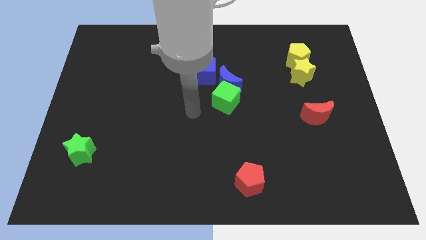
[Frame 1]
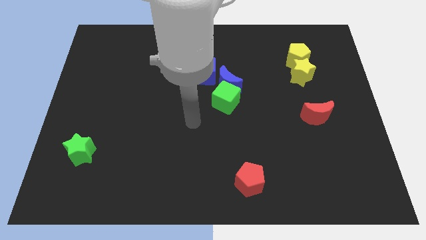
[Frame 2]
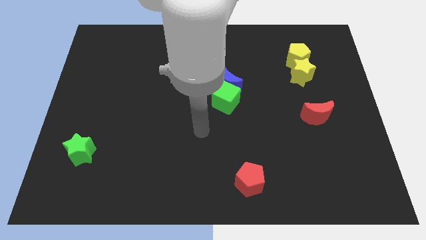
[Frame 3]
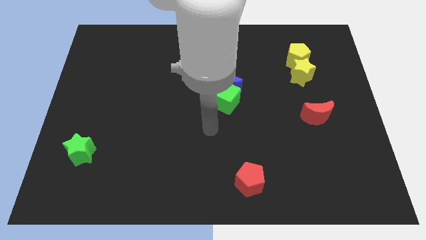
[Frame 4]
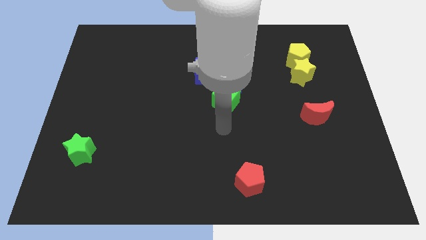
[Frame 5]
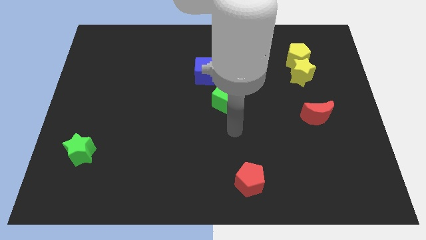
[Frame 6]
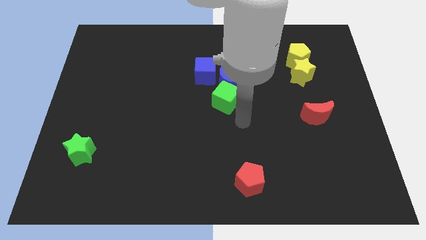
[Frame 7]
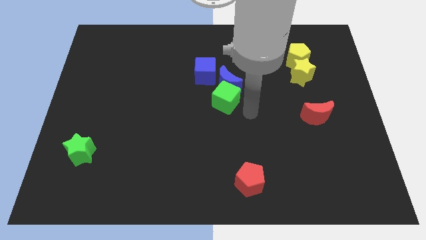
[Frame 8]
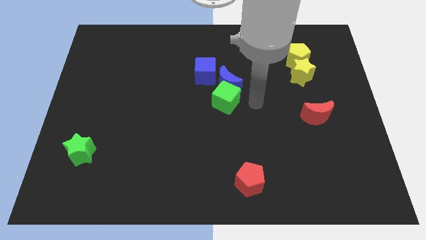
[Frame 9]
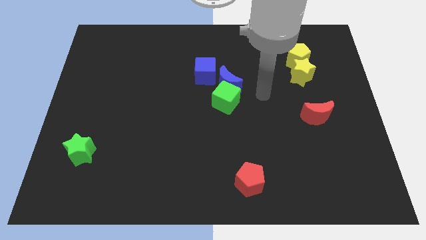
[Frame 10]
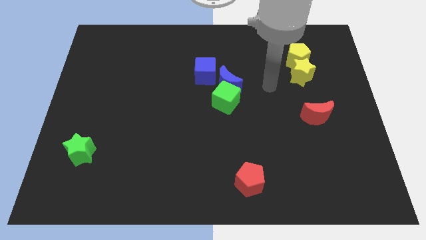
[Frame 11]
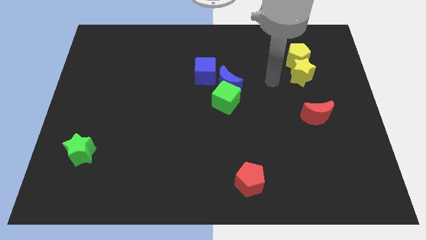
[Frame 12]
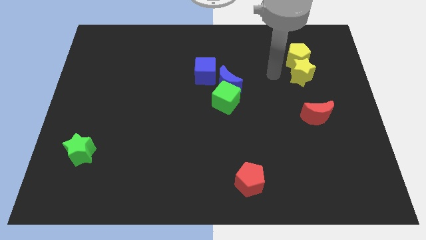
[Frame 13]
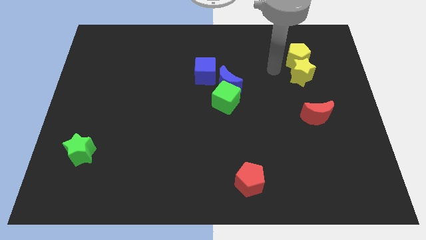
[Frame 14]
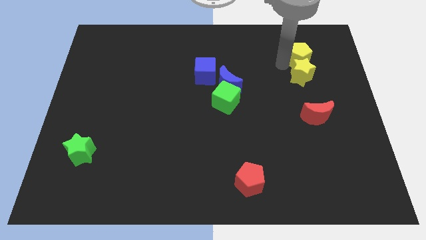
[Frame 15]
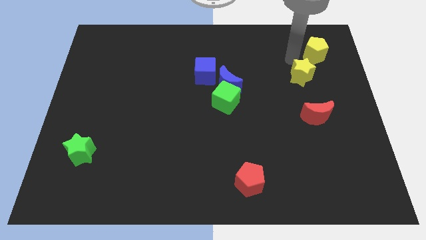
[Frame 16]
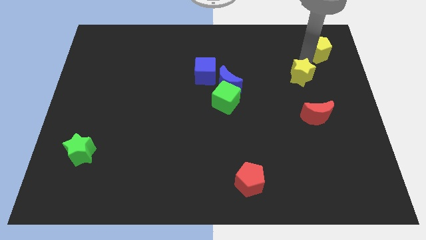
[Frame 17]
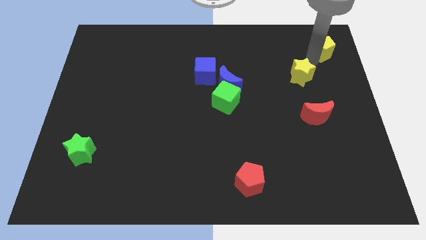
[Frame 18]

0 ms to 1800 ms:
pull the yellow star apart from the yellow pentagon

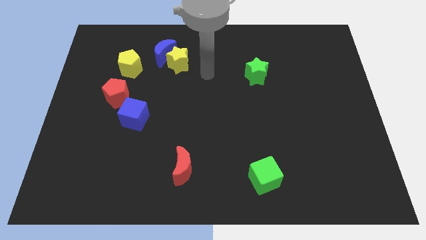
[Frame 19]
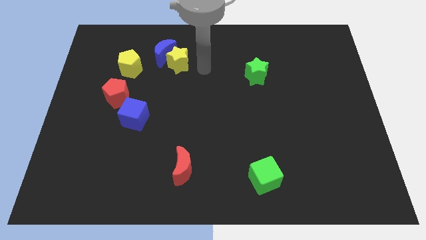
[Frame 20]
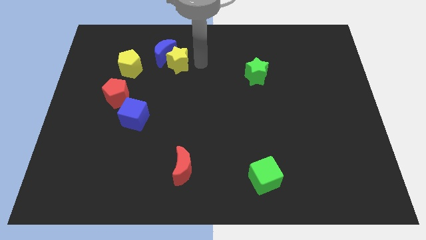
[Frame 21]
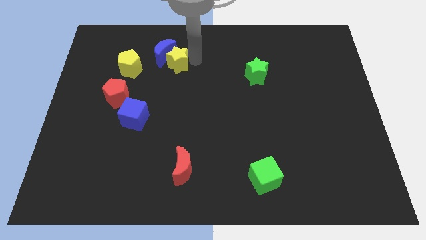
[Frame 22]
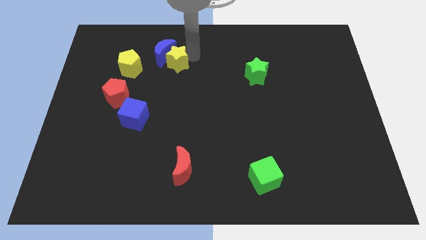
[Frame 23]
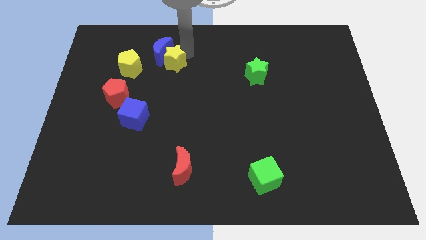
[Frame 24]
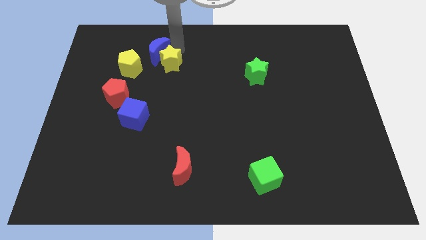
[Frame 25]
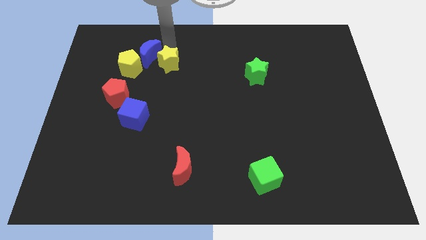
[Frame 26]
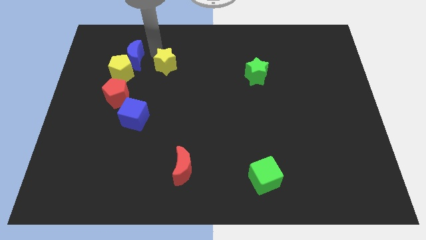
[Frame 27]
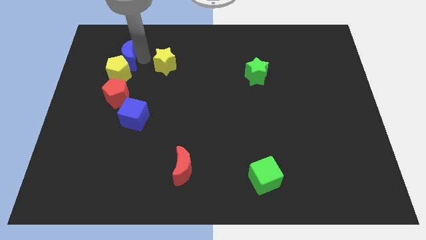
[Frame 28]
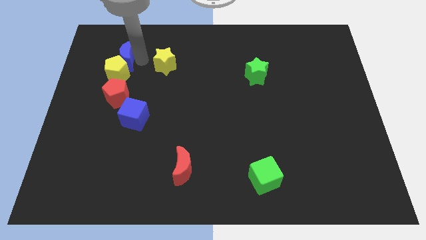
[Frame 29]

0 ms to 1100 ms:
separate the yellow star from the blue moon

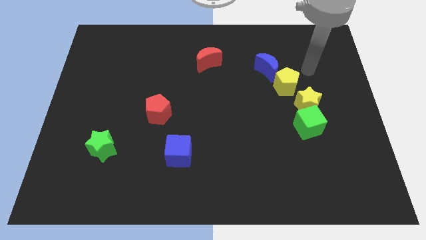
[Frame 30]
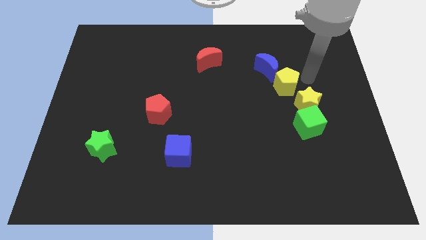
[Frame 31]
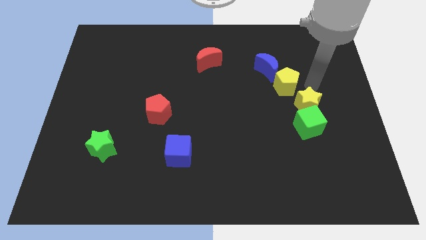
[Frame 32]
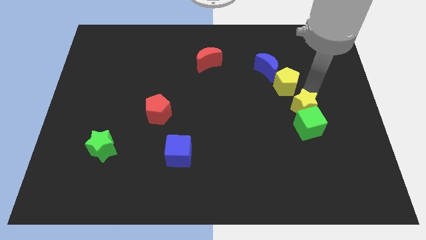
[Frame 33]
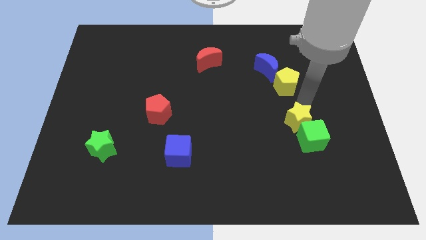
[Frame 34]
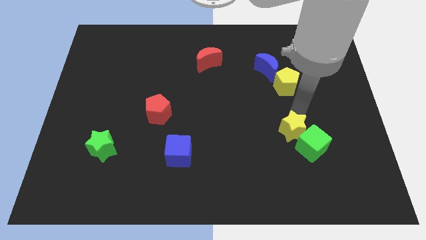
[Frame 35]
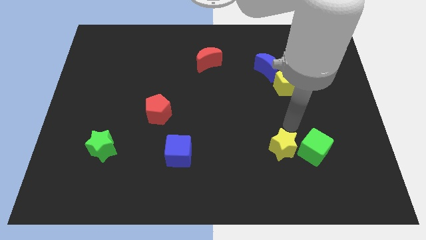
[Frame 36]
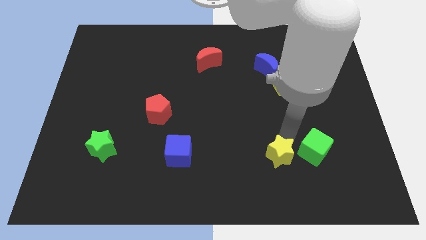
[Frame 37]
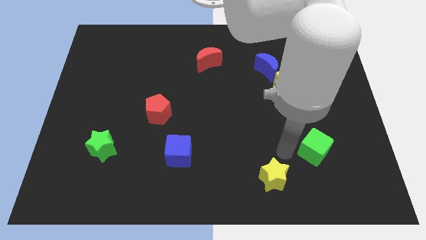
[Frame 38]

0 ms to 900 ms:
move the green cube away from the yellow star

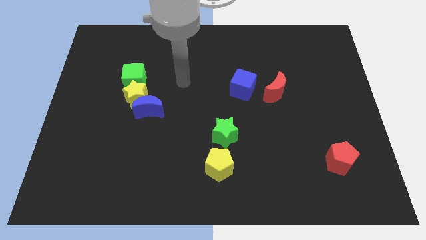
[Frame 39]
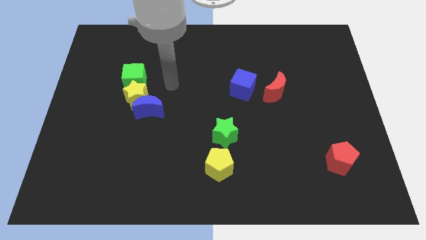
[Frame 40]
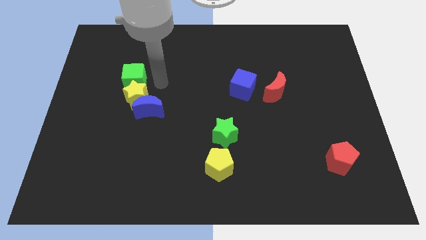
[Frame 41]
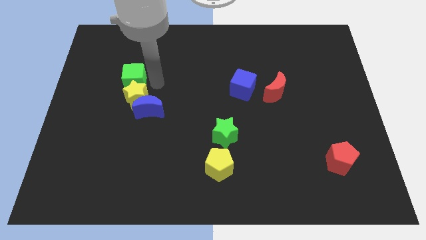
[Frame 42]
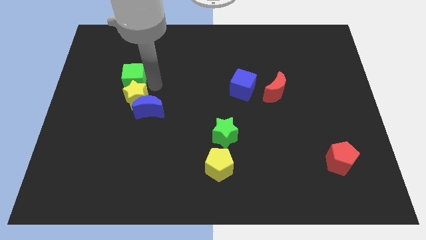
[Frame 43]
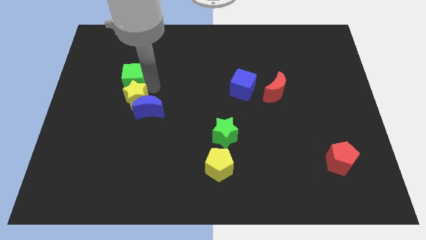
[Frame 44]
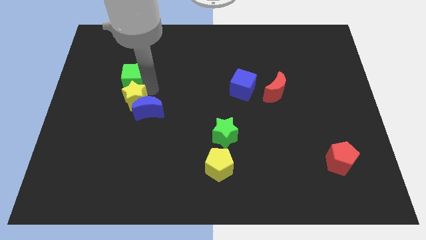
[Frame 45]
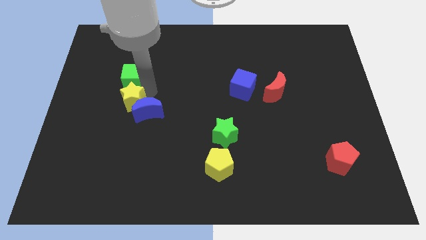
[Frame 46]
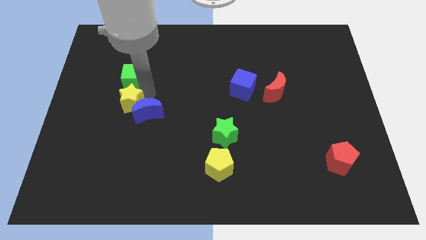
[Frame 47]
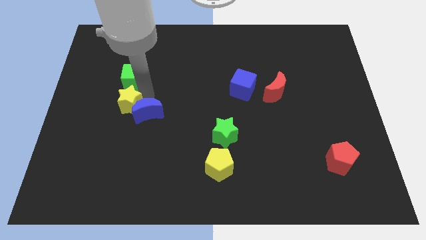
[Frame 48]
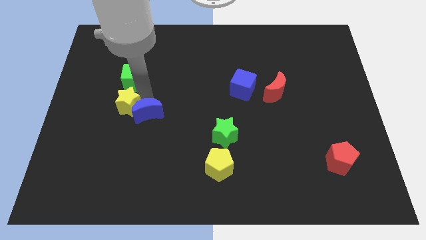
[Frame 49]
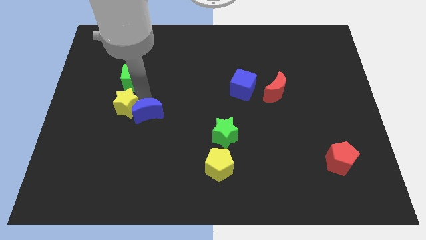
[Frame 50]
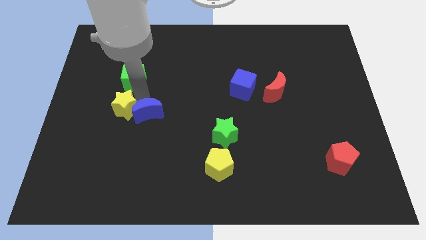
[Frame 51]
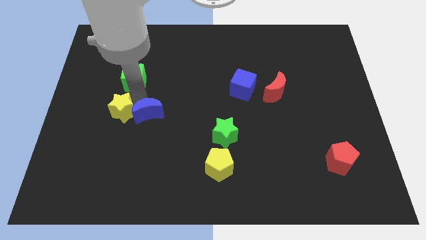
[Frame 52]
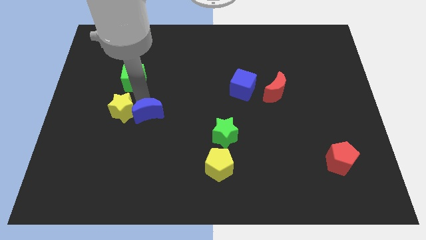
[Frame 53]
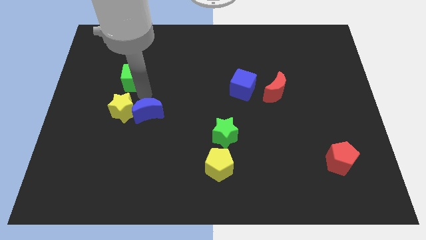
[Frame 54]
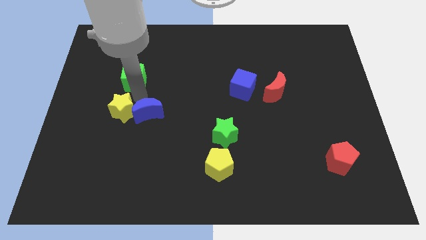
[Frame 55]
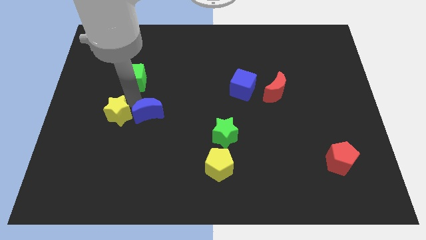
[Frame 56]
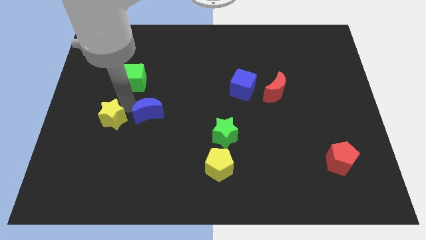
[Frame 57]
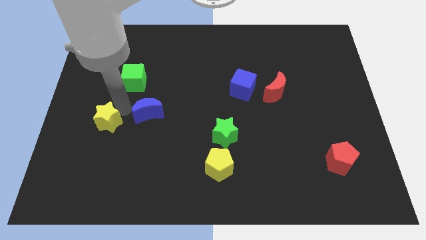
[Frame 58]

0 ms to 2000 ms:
move the yellow star away from the blue moon and green cube

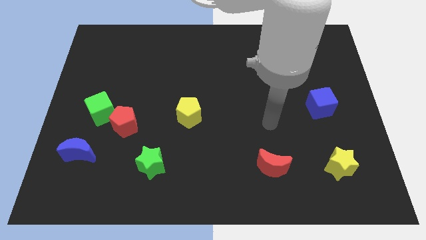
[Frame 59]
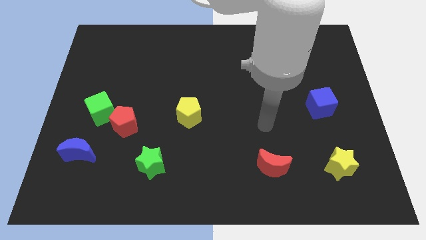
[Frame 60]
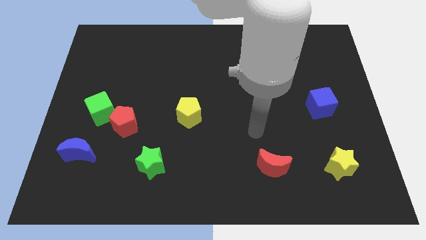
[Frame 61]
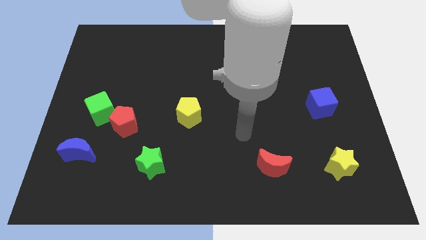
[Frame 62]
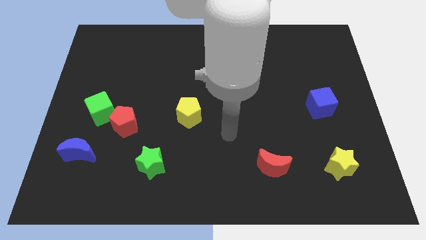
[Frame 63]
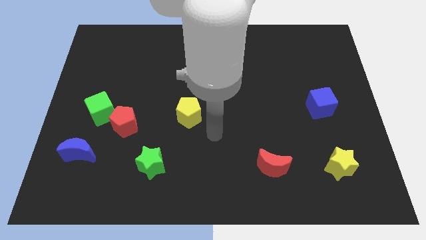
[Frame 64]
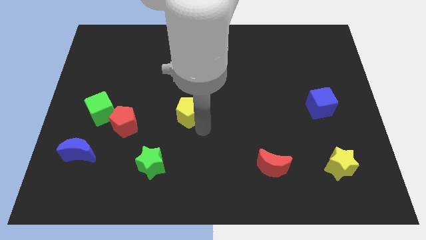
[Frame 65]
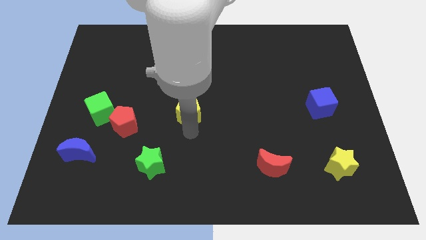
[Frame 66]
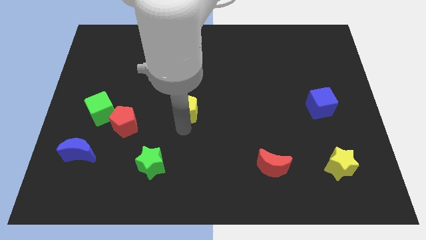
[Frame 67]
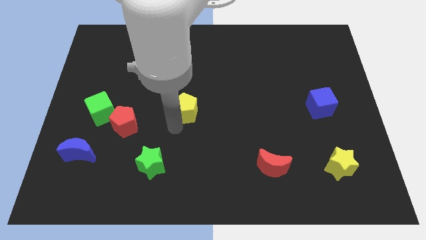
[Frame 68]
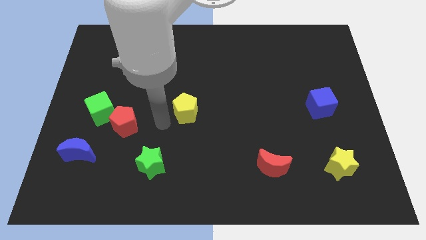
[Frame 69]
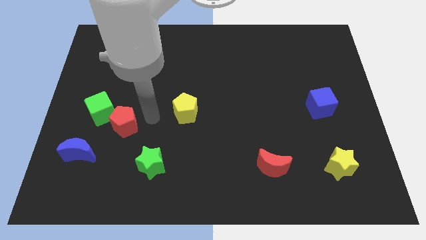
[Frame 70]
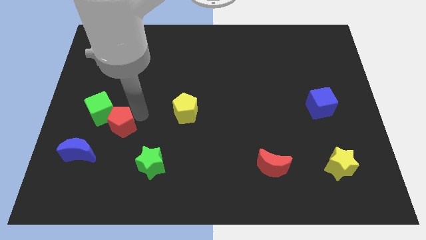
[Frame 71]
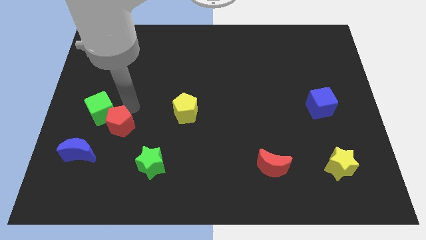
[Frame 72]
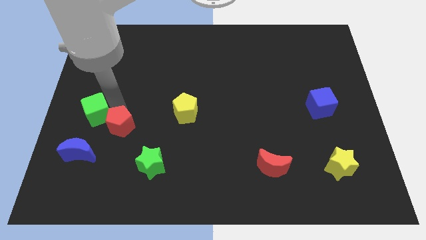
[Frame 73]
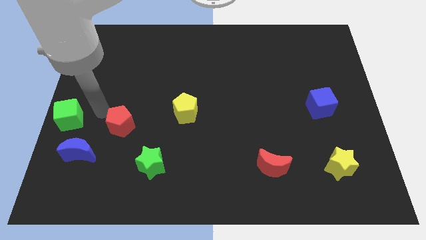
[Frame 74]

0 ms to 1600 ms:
separate the red pentagon from the green cube

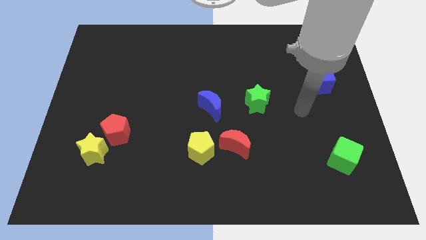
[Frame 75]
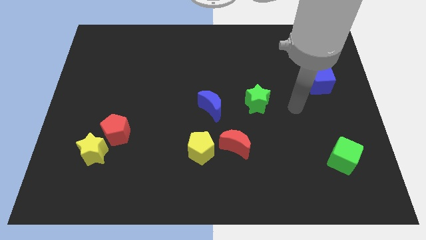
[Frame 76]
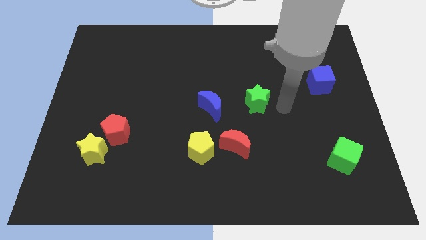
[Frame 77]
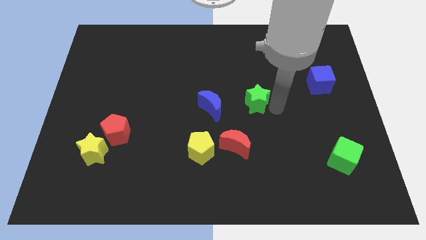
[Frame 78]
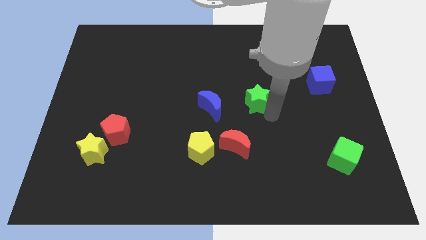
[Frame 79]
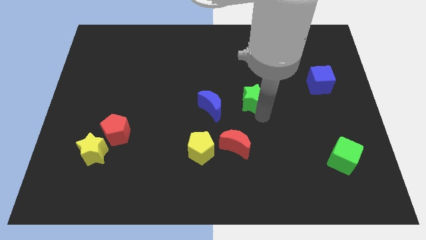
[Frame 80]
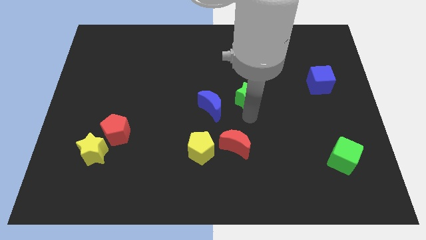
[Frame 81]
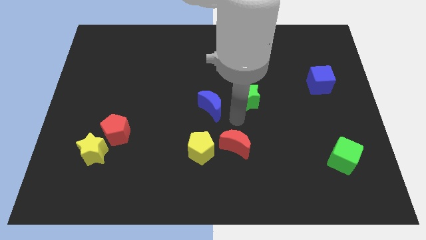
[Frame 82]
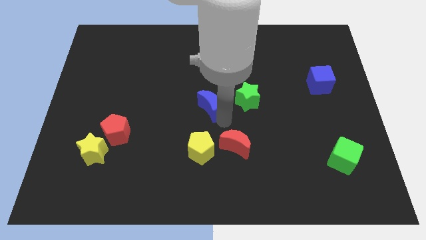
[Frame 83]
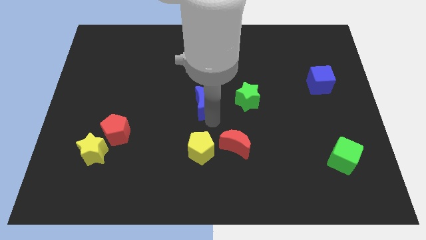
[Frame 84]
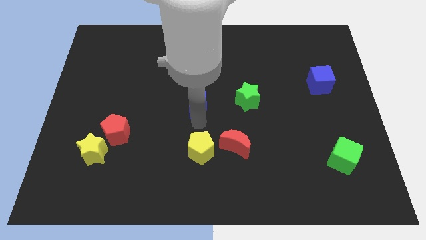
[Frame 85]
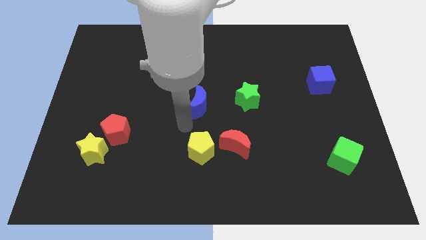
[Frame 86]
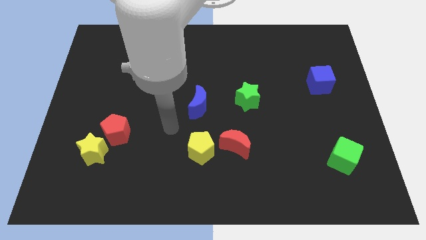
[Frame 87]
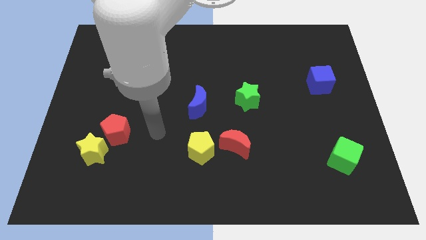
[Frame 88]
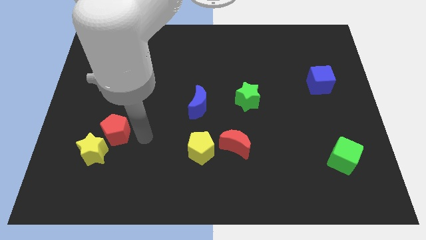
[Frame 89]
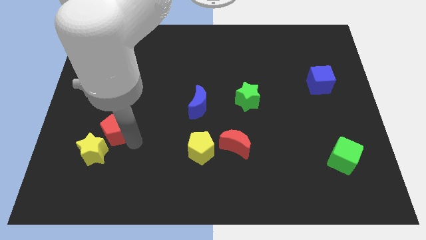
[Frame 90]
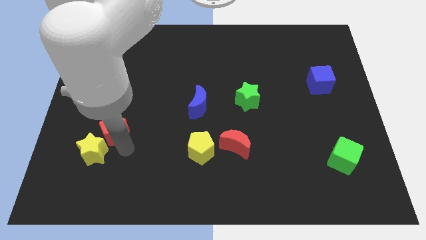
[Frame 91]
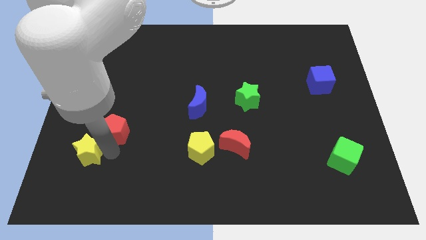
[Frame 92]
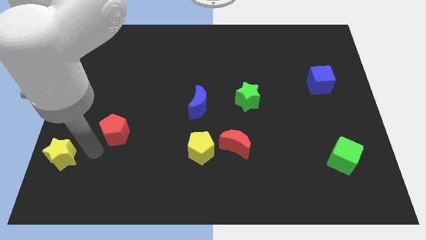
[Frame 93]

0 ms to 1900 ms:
separate the red pentagon from the yellow star

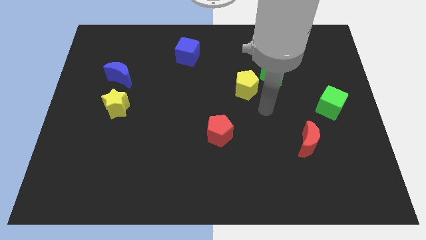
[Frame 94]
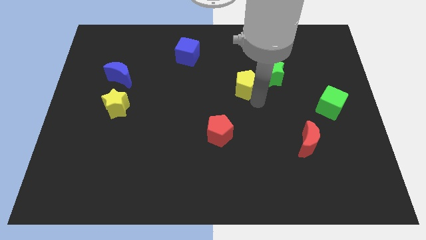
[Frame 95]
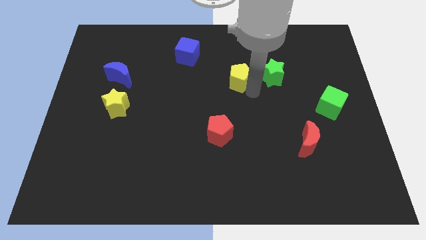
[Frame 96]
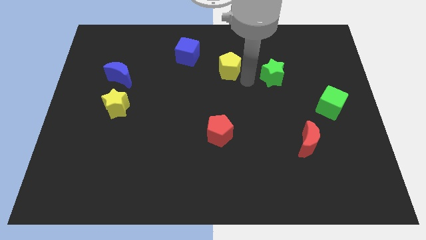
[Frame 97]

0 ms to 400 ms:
separate the green star from the yellow pentagon
